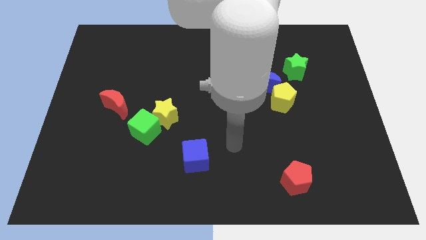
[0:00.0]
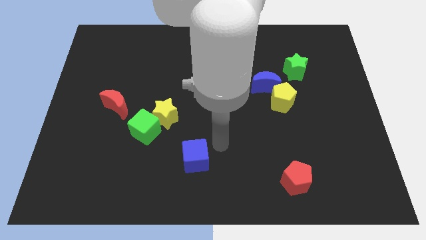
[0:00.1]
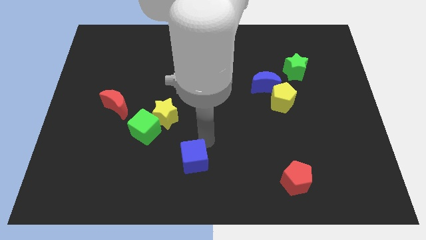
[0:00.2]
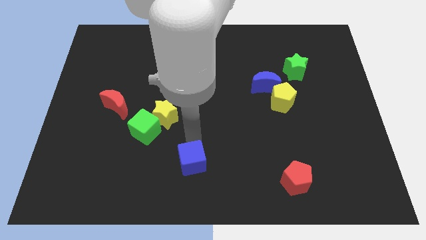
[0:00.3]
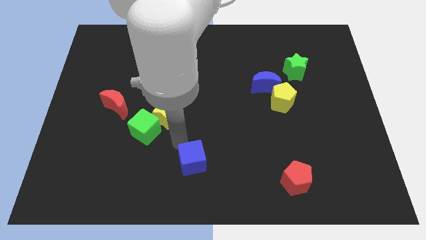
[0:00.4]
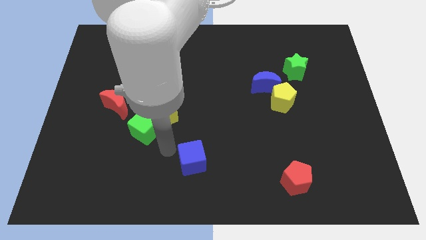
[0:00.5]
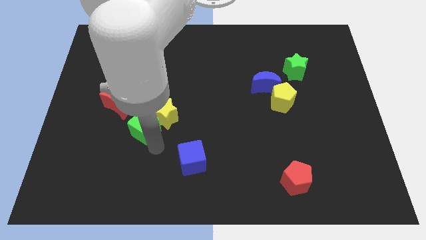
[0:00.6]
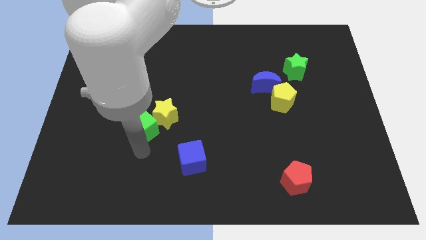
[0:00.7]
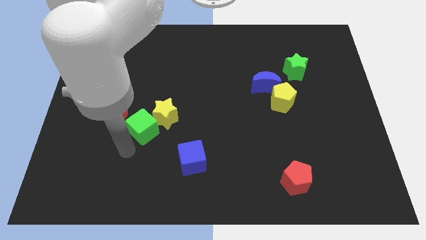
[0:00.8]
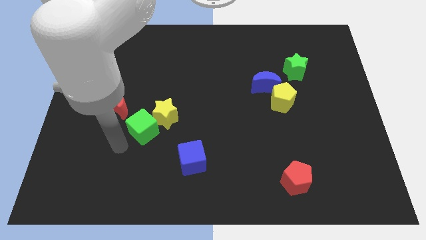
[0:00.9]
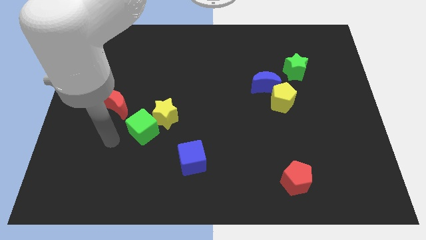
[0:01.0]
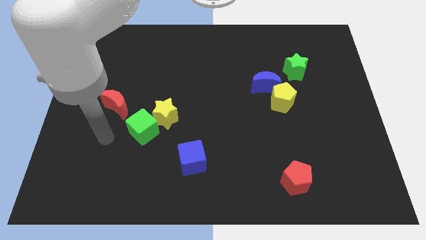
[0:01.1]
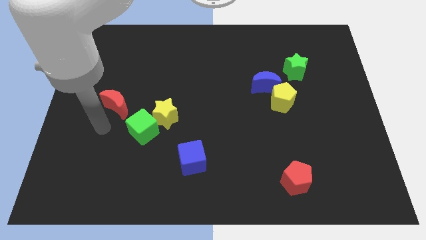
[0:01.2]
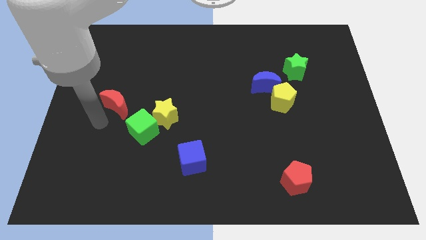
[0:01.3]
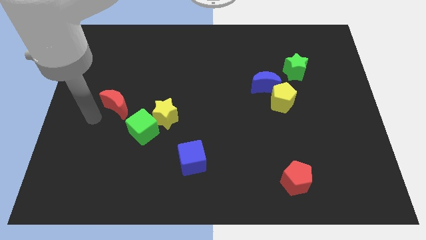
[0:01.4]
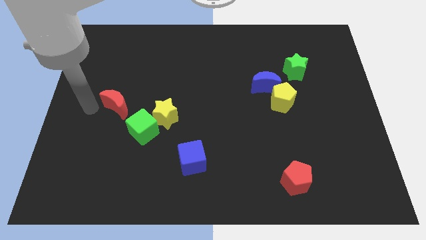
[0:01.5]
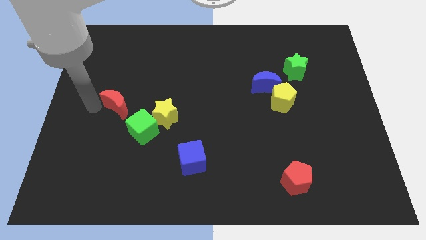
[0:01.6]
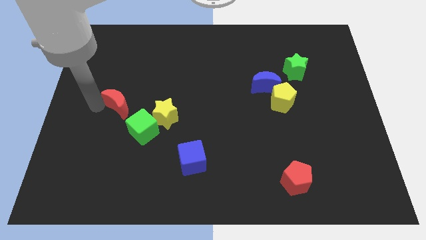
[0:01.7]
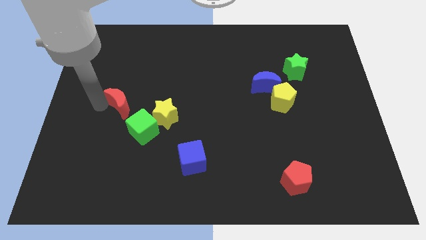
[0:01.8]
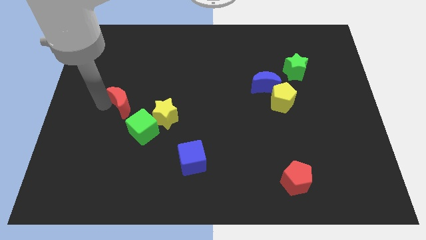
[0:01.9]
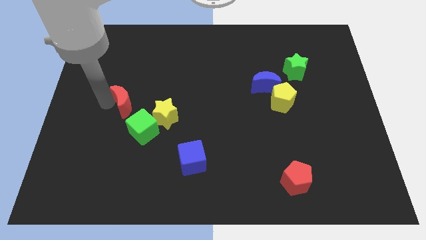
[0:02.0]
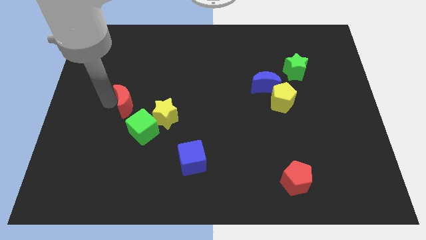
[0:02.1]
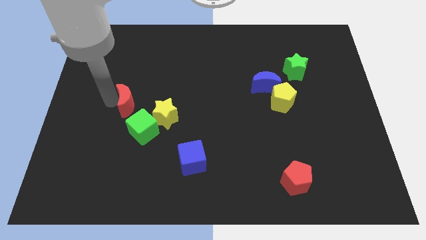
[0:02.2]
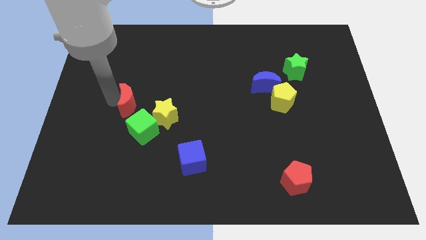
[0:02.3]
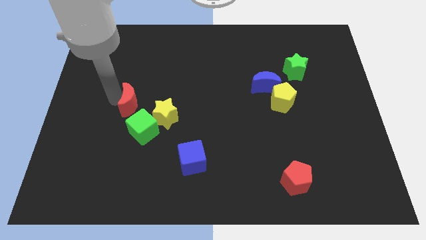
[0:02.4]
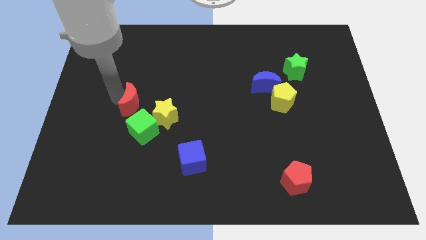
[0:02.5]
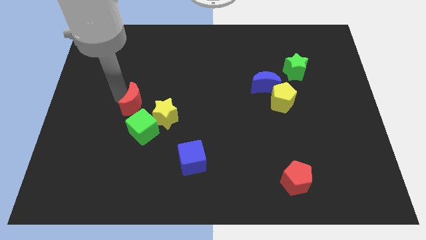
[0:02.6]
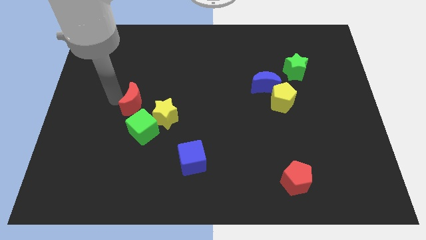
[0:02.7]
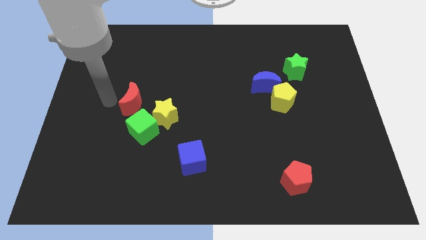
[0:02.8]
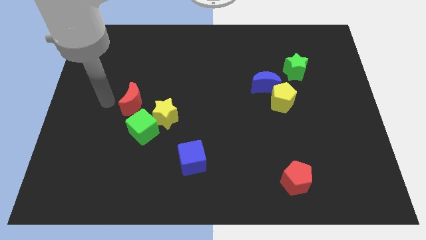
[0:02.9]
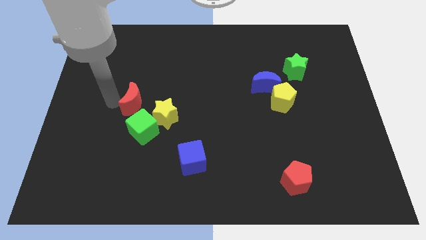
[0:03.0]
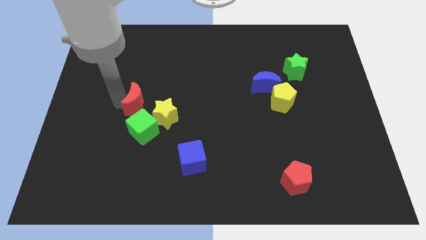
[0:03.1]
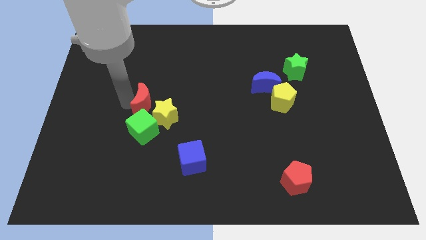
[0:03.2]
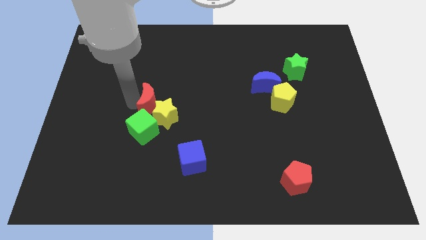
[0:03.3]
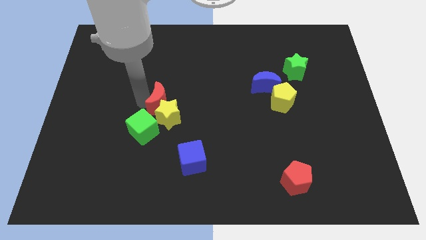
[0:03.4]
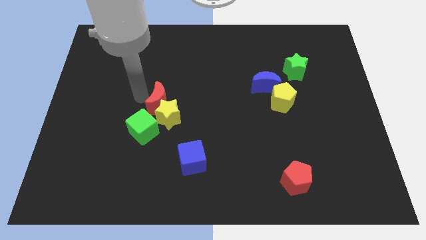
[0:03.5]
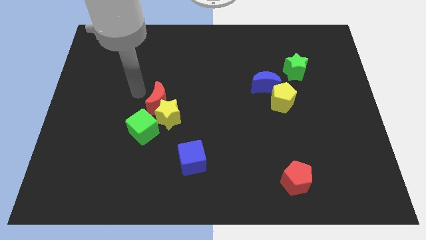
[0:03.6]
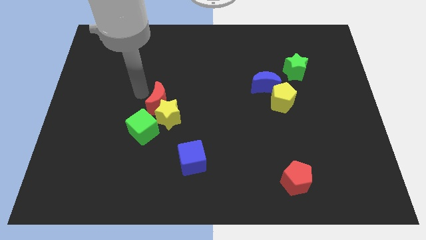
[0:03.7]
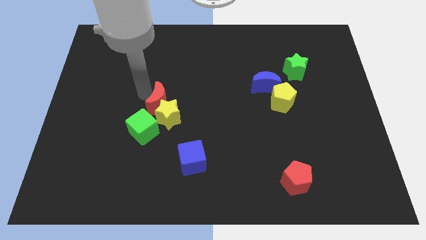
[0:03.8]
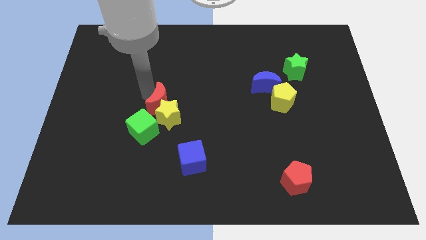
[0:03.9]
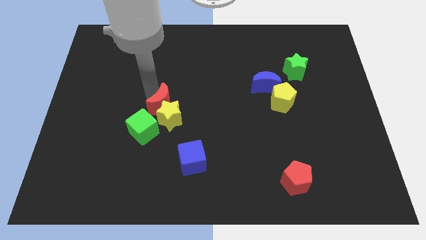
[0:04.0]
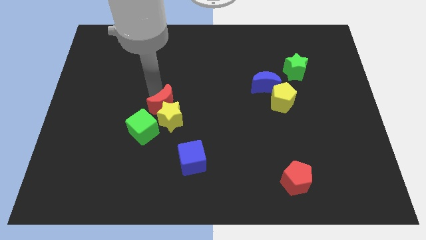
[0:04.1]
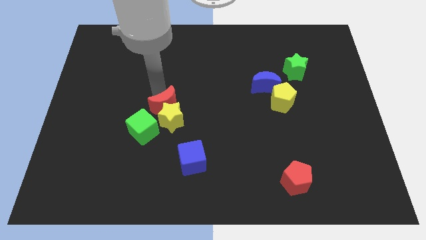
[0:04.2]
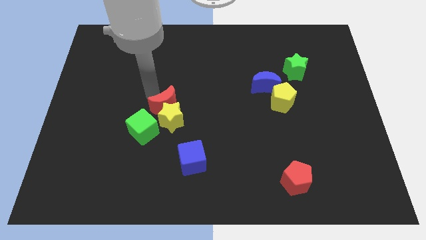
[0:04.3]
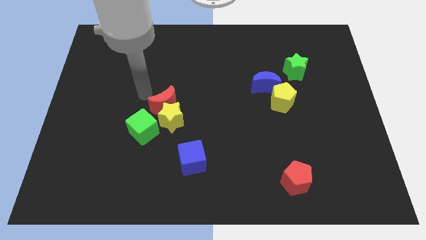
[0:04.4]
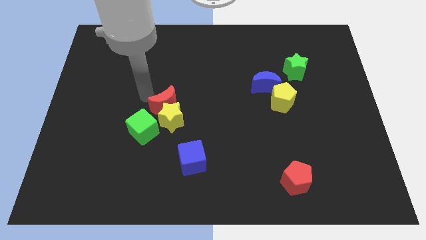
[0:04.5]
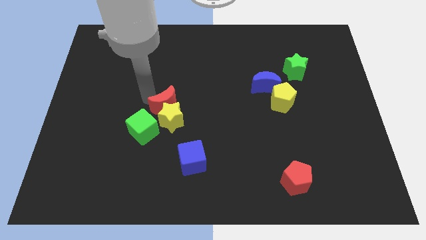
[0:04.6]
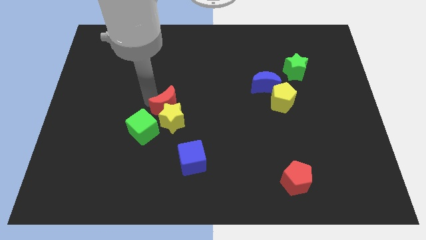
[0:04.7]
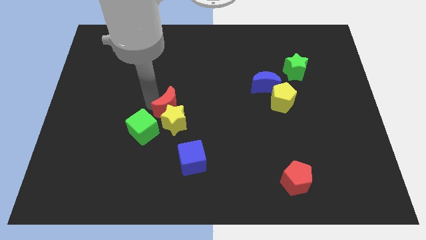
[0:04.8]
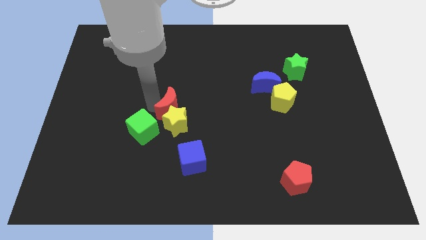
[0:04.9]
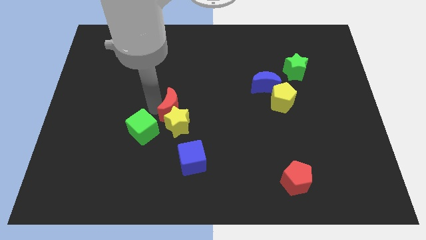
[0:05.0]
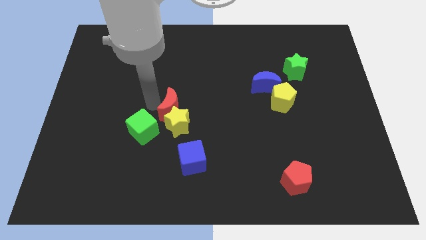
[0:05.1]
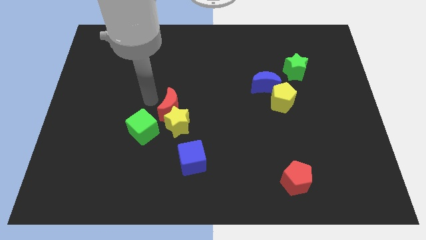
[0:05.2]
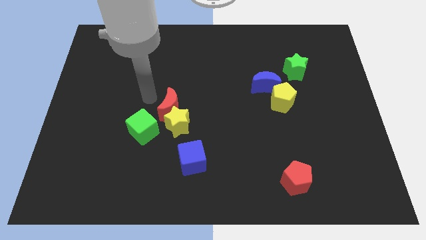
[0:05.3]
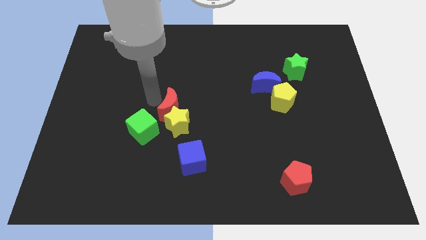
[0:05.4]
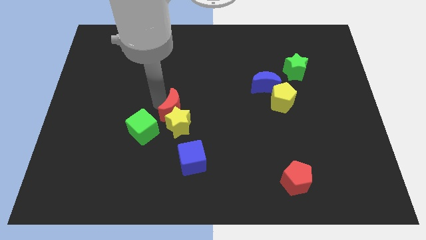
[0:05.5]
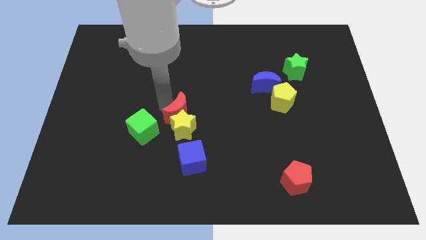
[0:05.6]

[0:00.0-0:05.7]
put the red moon above the blue cube

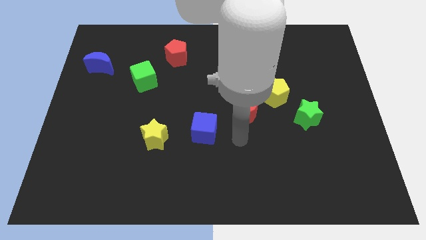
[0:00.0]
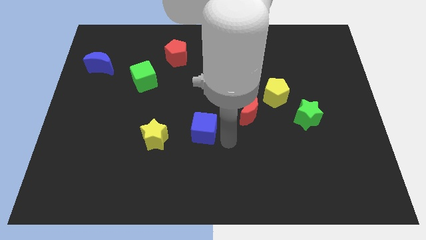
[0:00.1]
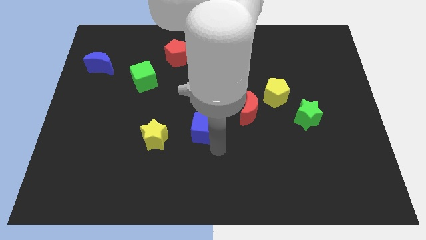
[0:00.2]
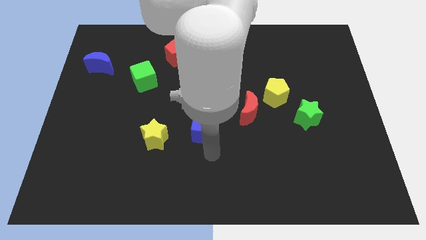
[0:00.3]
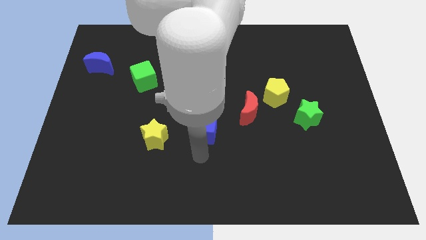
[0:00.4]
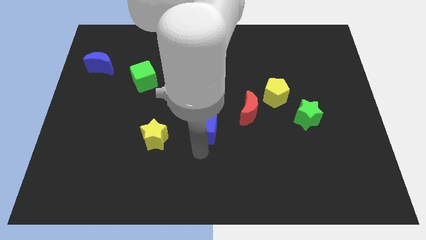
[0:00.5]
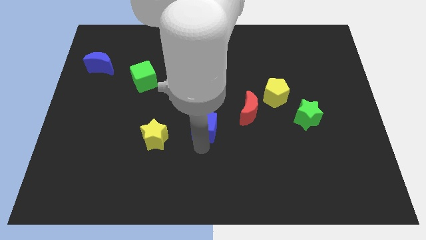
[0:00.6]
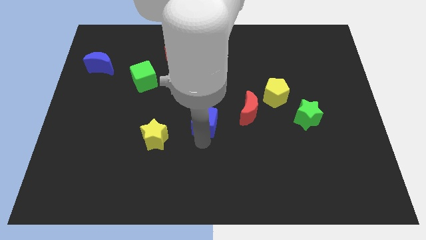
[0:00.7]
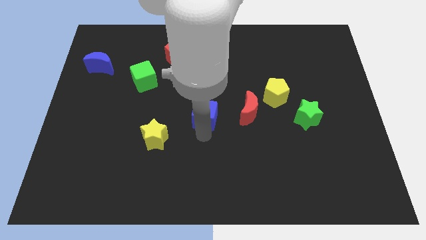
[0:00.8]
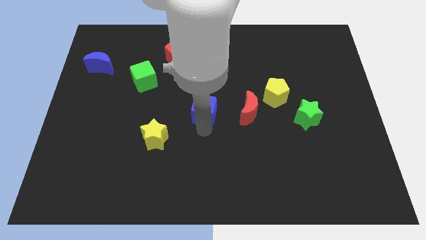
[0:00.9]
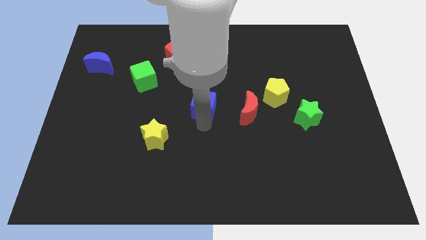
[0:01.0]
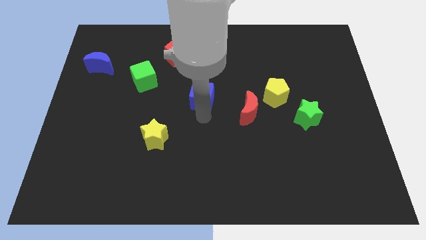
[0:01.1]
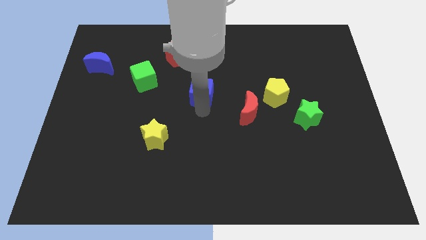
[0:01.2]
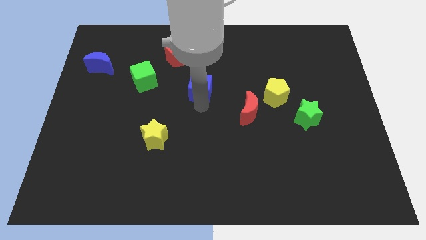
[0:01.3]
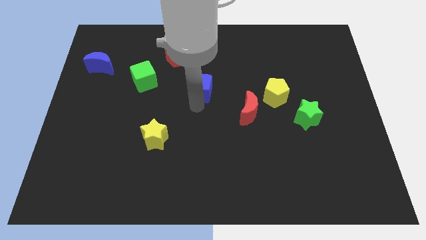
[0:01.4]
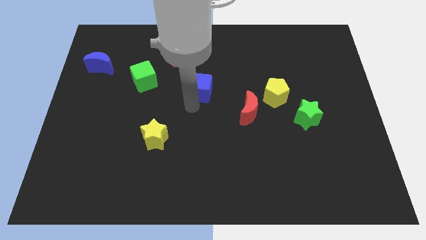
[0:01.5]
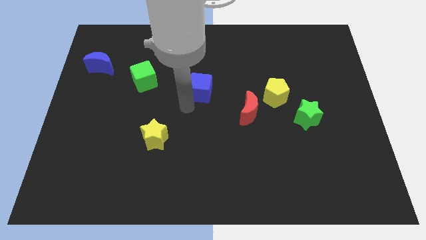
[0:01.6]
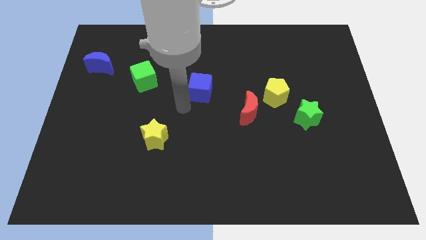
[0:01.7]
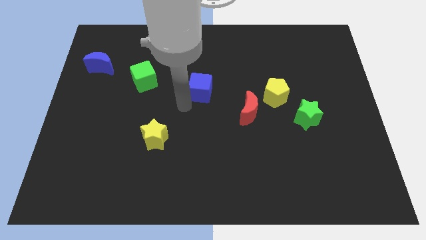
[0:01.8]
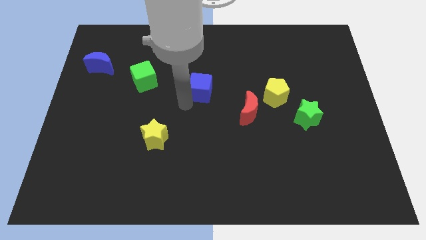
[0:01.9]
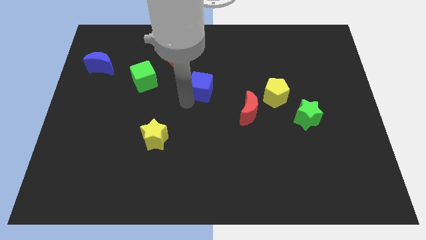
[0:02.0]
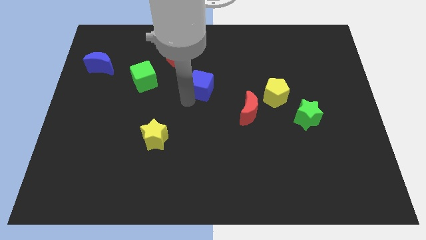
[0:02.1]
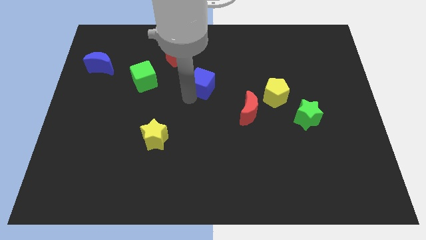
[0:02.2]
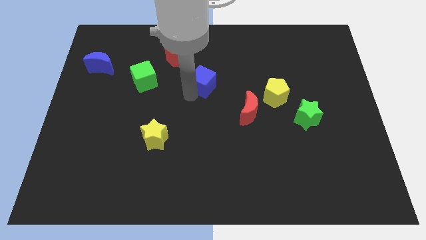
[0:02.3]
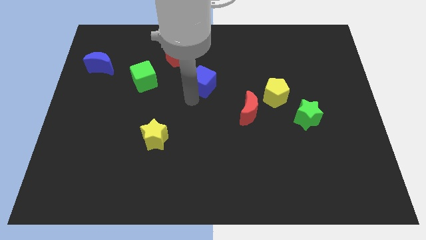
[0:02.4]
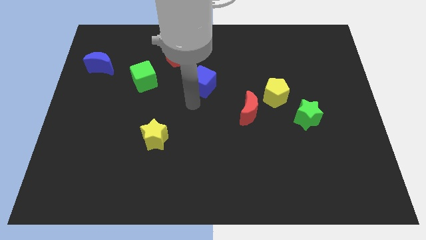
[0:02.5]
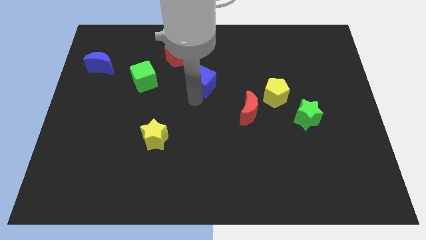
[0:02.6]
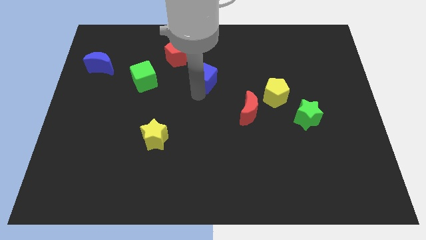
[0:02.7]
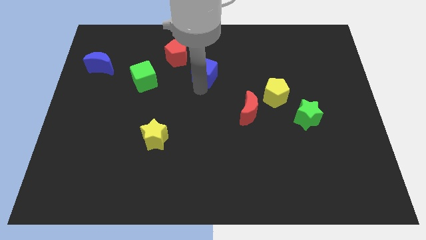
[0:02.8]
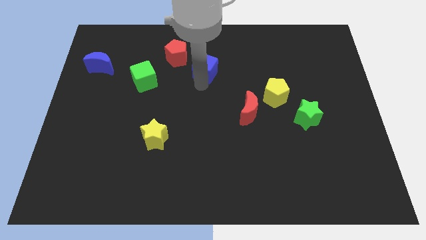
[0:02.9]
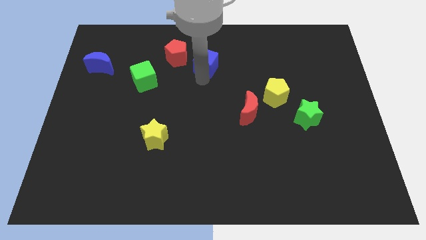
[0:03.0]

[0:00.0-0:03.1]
slide the blue cube to the right of the red pentagon
